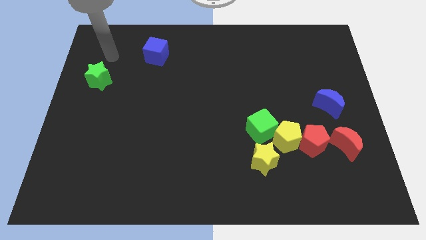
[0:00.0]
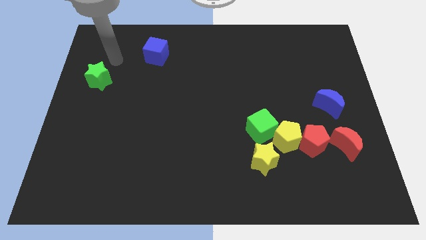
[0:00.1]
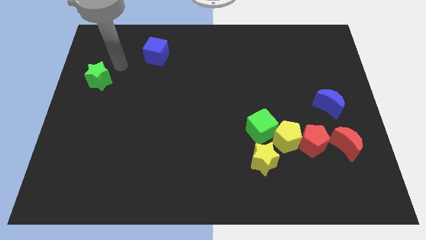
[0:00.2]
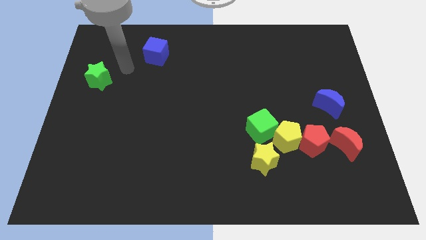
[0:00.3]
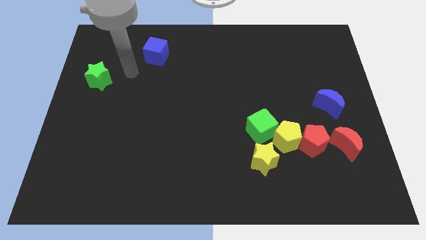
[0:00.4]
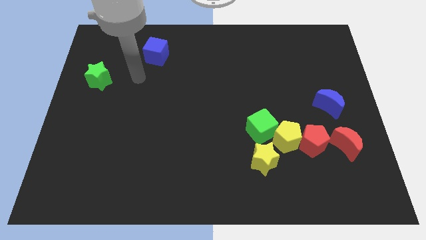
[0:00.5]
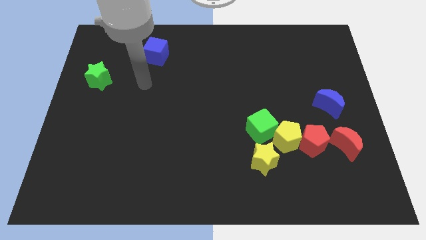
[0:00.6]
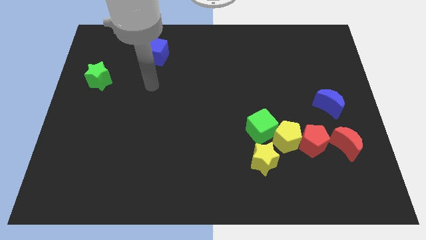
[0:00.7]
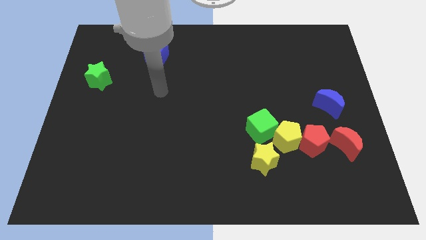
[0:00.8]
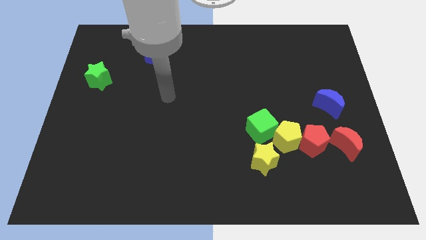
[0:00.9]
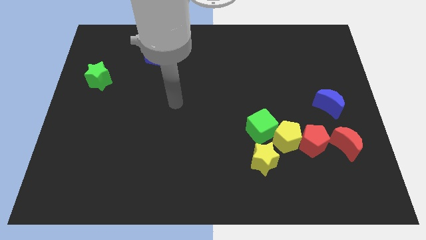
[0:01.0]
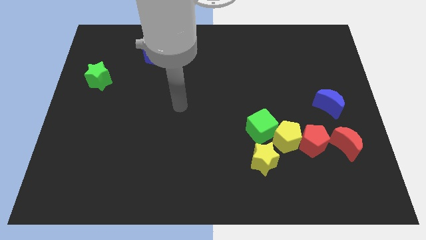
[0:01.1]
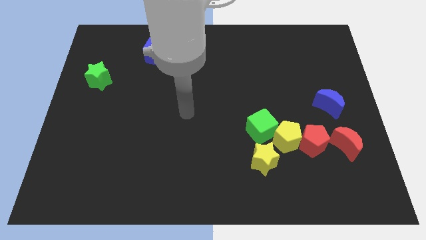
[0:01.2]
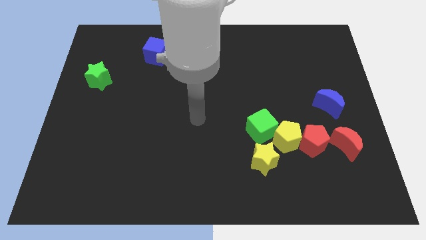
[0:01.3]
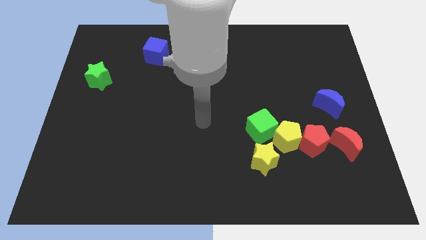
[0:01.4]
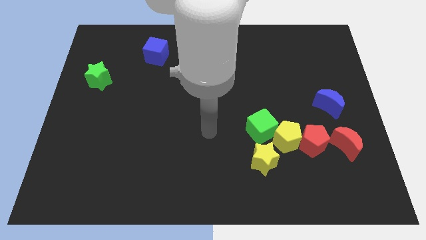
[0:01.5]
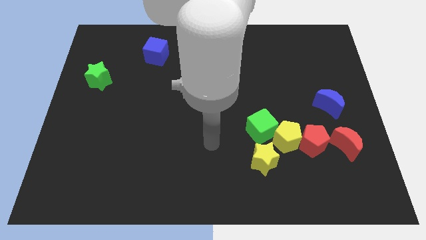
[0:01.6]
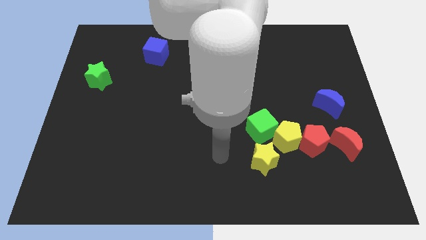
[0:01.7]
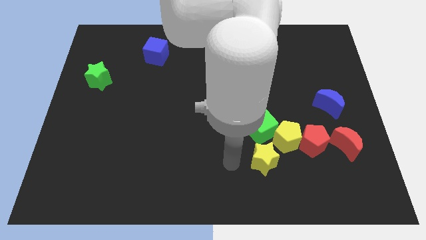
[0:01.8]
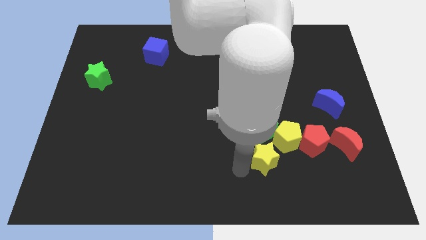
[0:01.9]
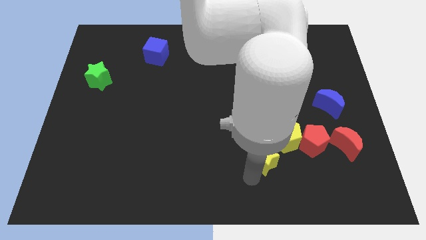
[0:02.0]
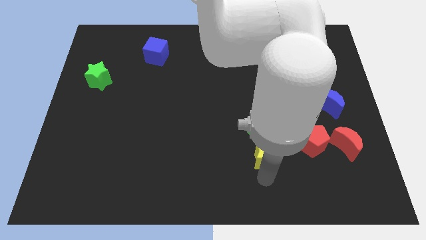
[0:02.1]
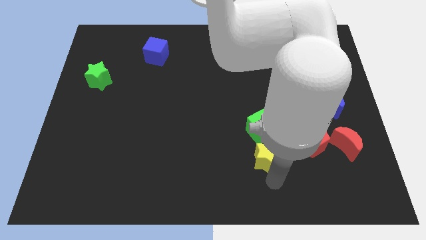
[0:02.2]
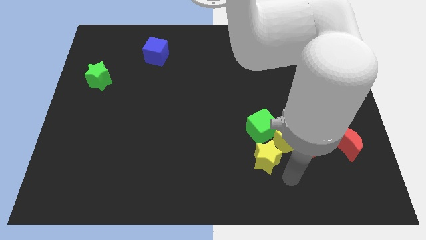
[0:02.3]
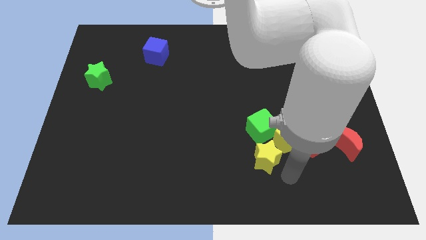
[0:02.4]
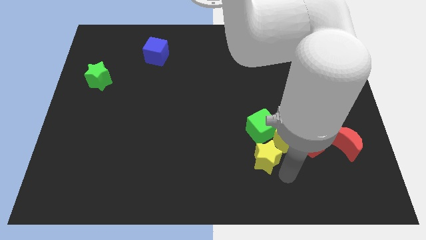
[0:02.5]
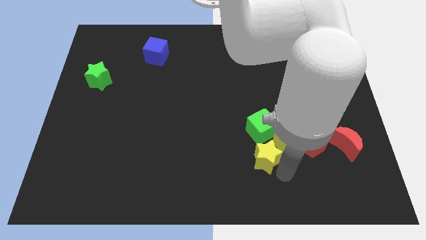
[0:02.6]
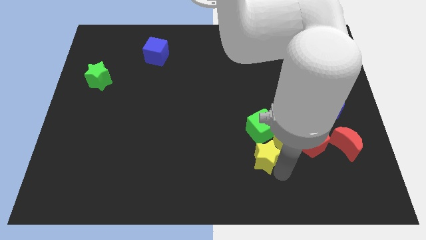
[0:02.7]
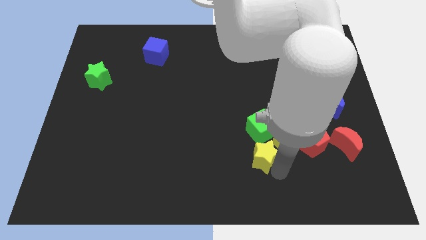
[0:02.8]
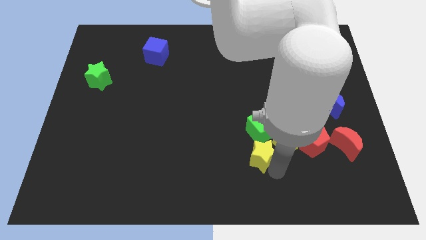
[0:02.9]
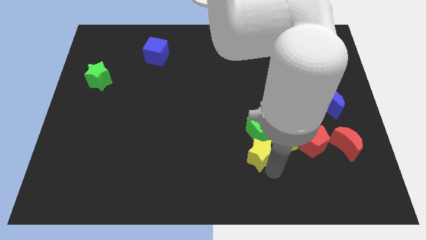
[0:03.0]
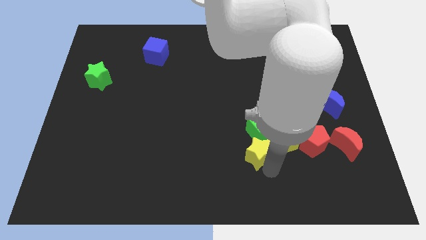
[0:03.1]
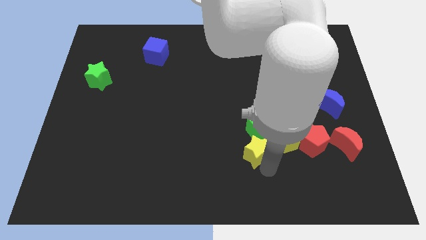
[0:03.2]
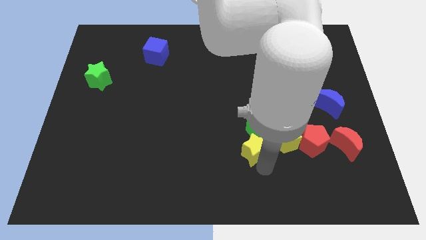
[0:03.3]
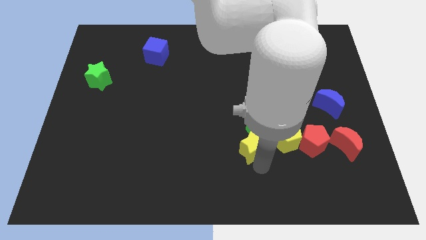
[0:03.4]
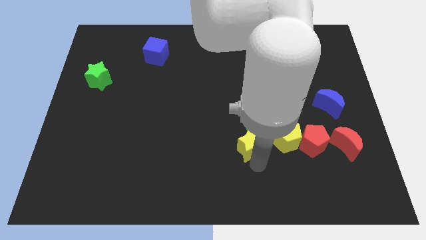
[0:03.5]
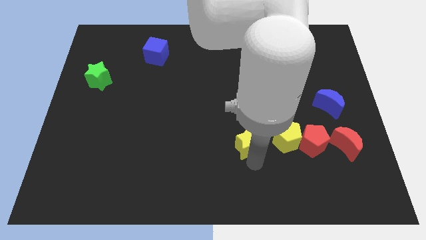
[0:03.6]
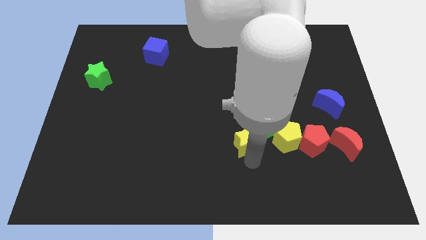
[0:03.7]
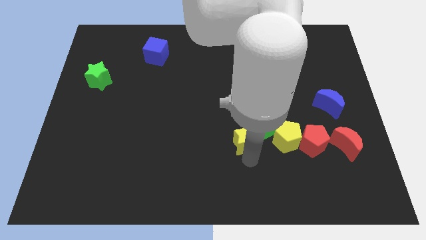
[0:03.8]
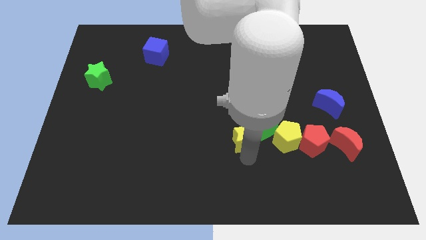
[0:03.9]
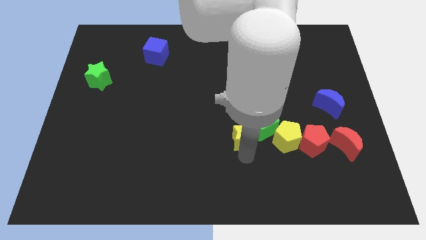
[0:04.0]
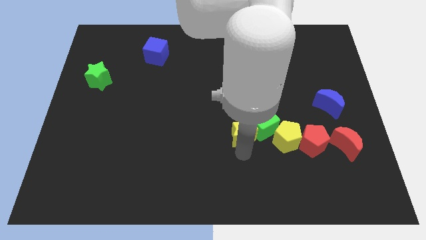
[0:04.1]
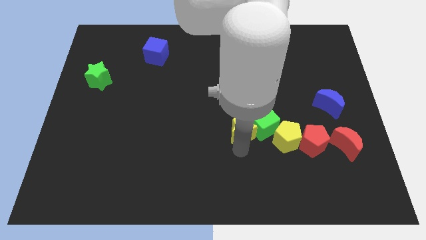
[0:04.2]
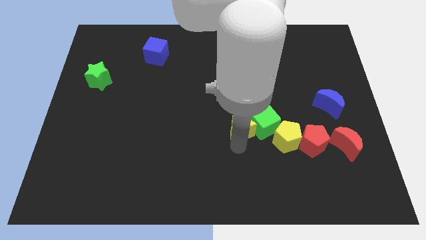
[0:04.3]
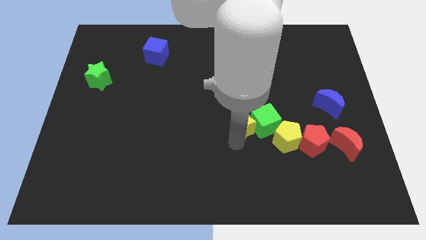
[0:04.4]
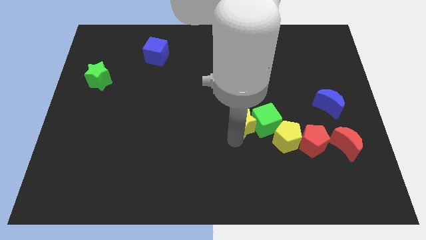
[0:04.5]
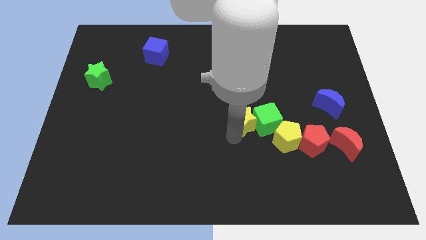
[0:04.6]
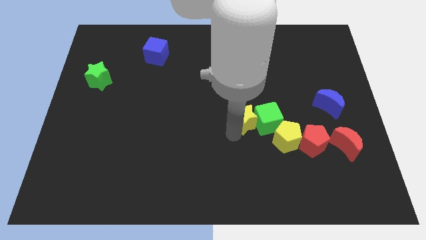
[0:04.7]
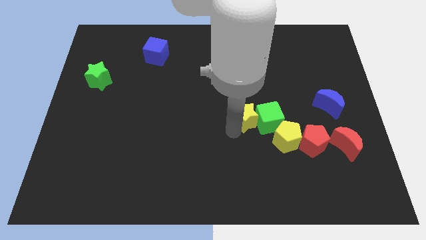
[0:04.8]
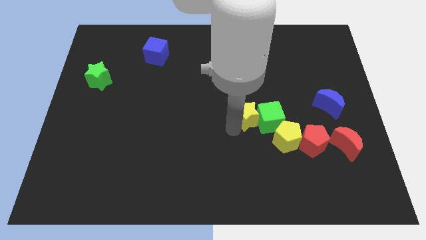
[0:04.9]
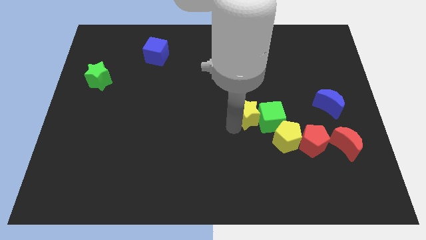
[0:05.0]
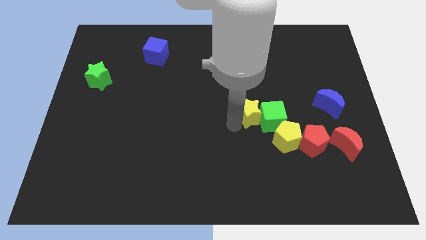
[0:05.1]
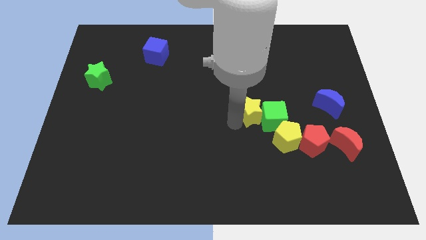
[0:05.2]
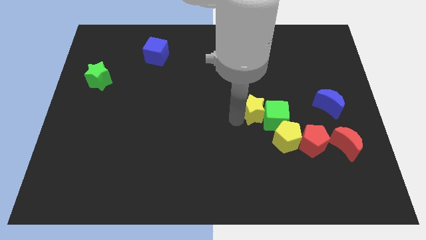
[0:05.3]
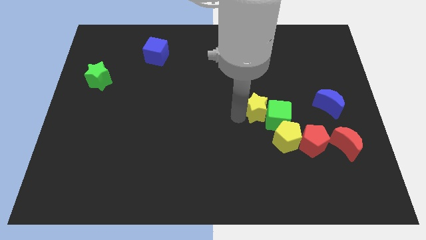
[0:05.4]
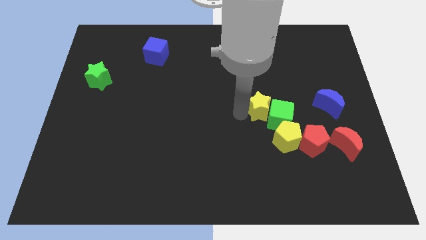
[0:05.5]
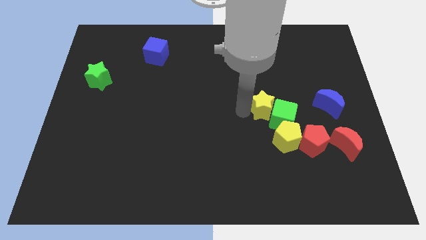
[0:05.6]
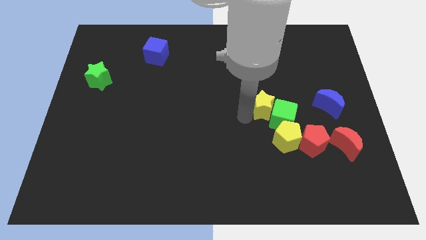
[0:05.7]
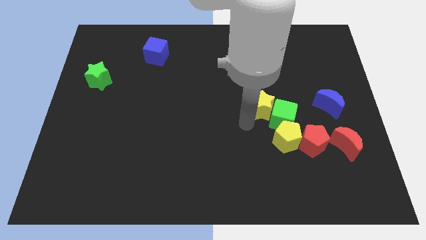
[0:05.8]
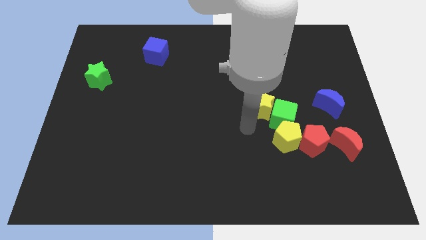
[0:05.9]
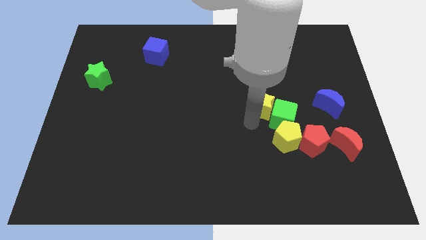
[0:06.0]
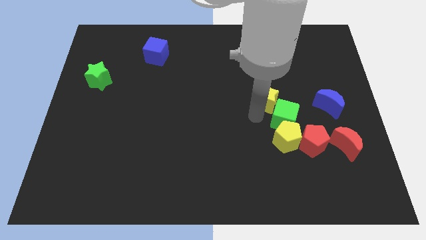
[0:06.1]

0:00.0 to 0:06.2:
push the yellow star to the top of the green cube

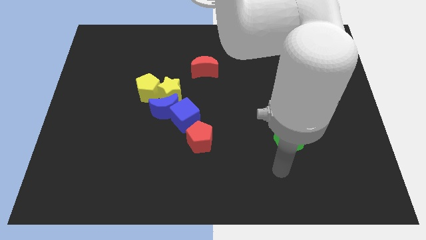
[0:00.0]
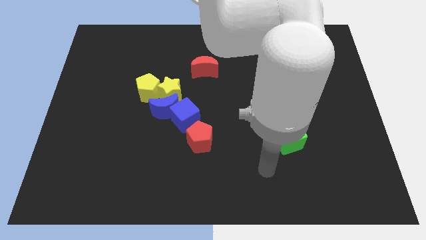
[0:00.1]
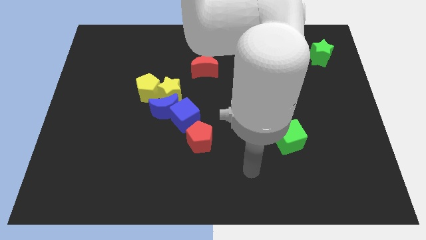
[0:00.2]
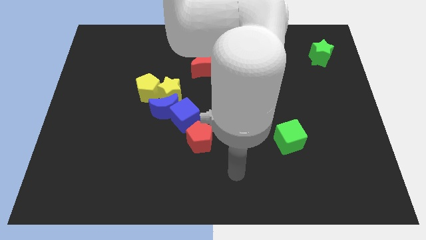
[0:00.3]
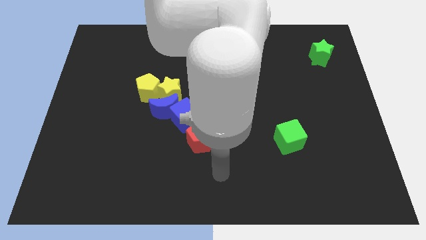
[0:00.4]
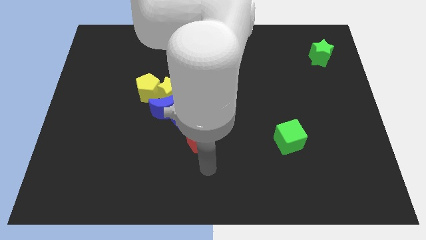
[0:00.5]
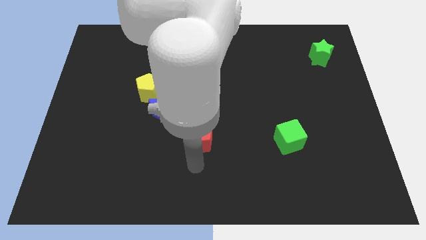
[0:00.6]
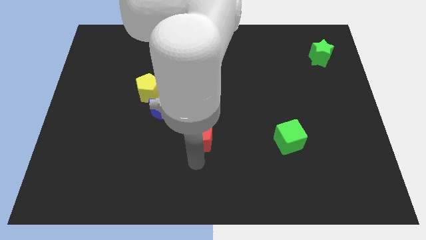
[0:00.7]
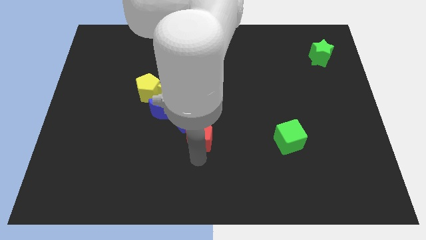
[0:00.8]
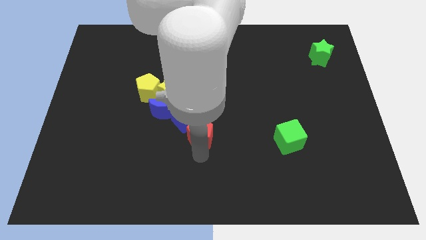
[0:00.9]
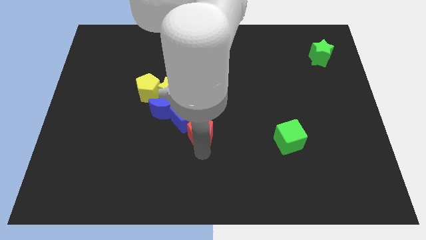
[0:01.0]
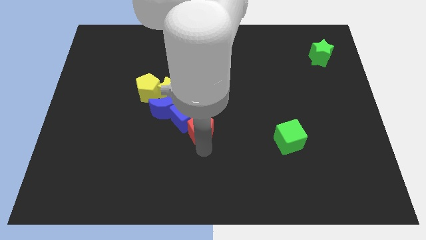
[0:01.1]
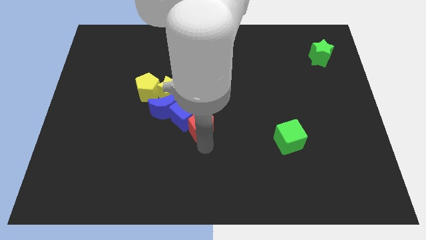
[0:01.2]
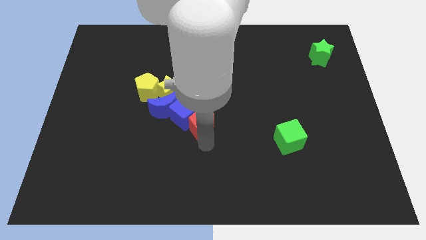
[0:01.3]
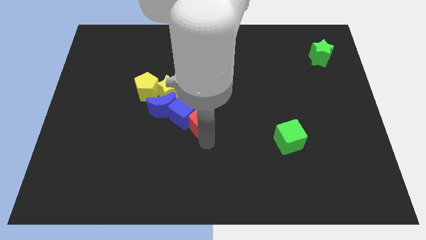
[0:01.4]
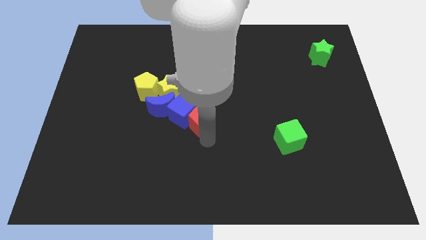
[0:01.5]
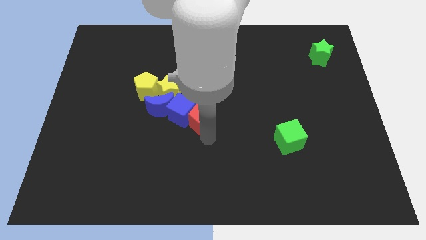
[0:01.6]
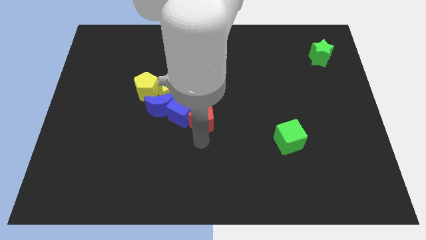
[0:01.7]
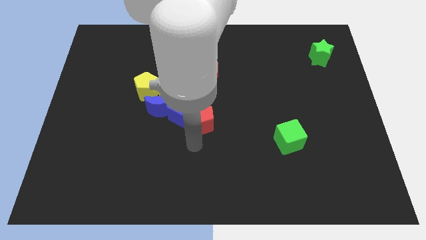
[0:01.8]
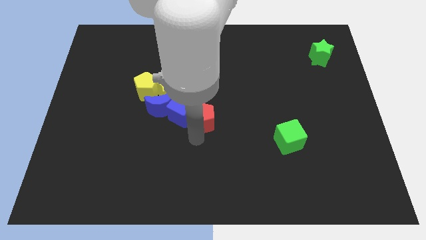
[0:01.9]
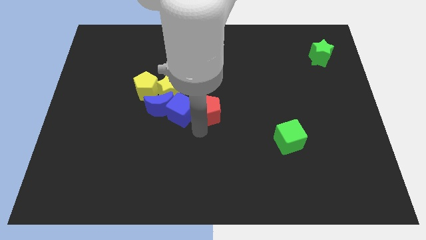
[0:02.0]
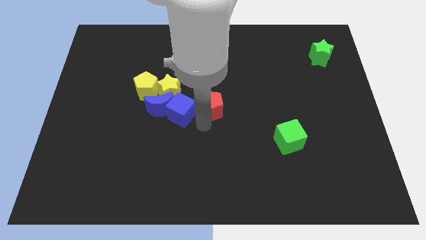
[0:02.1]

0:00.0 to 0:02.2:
put the red pentagon right of the yellow star
